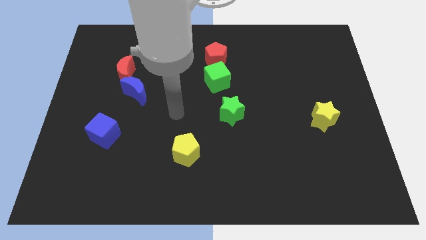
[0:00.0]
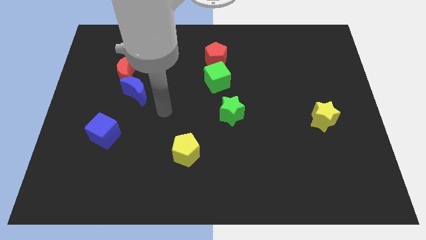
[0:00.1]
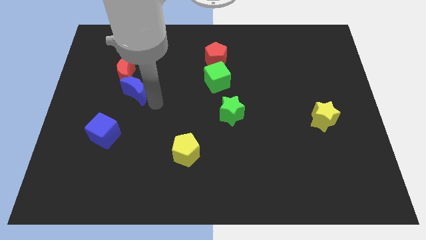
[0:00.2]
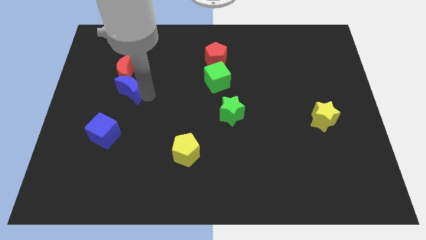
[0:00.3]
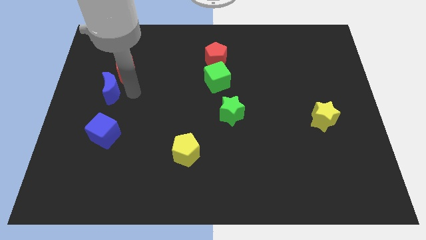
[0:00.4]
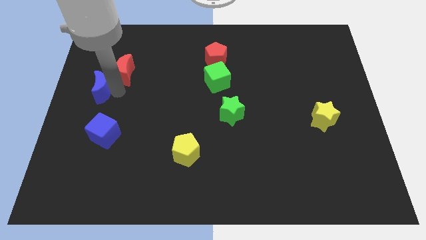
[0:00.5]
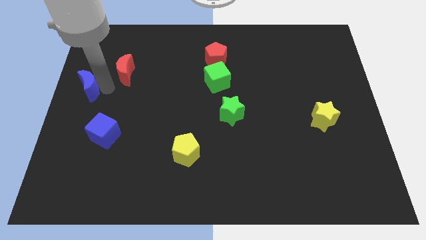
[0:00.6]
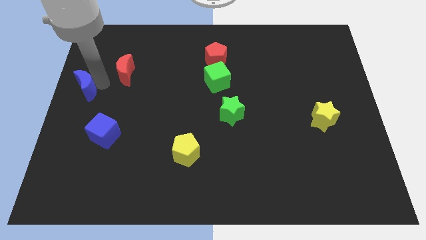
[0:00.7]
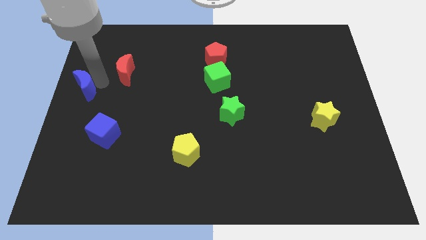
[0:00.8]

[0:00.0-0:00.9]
pull the red moon apart from the blue moon

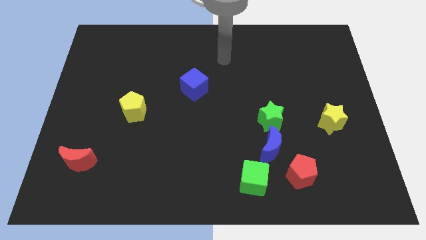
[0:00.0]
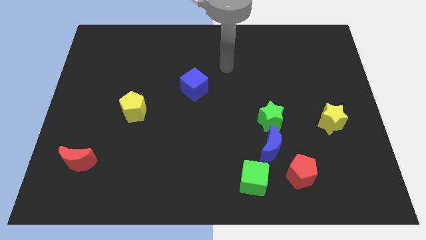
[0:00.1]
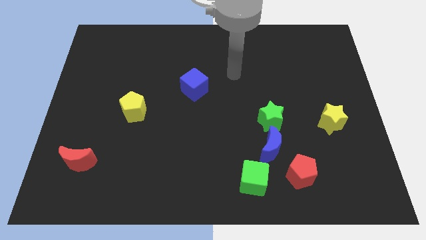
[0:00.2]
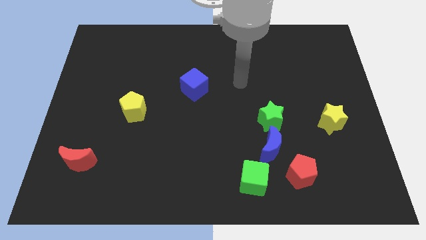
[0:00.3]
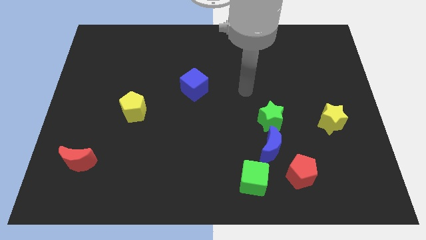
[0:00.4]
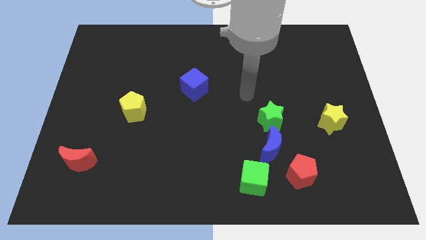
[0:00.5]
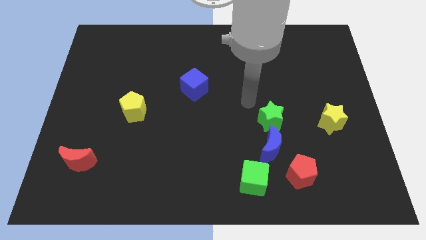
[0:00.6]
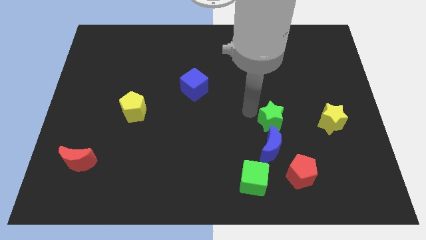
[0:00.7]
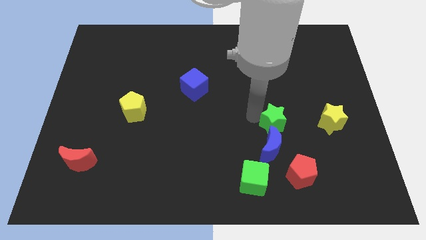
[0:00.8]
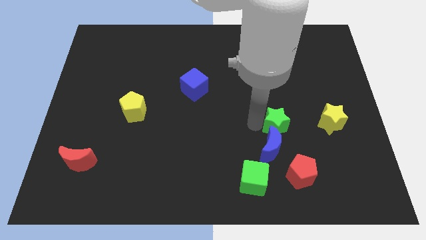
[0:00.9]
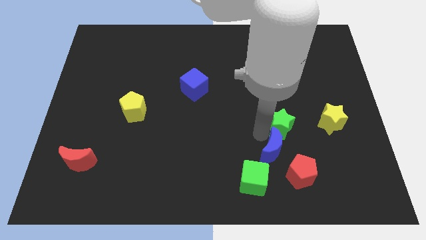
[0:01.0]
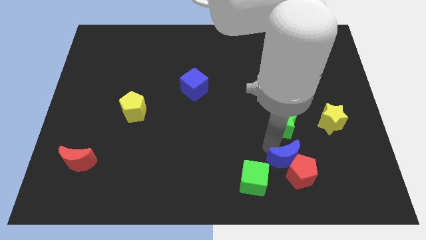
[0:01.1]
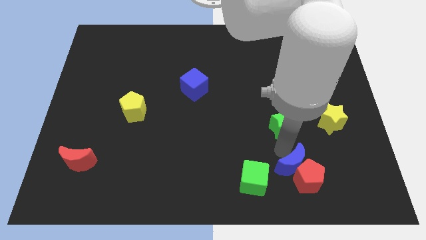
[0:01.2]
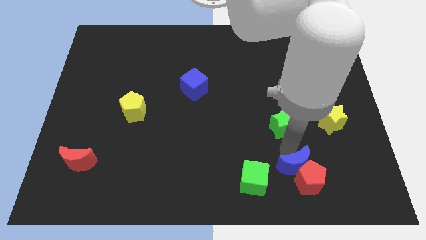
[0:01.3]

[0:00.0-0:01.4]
separate the green star from the blue moon

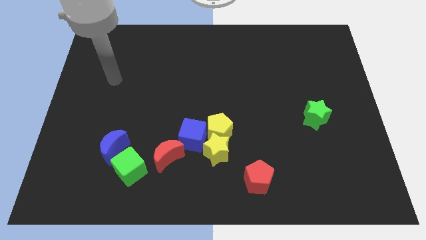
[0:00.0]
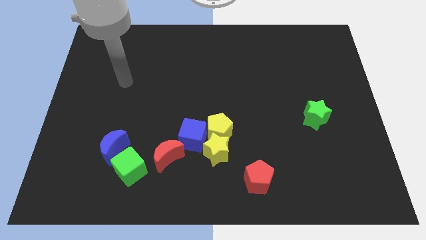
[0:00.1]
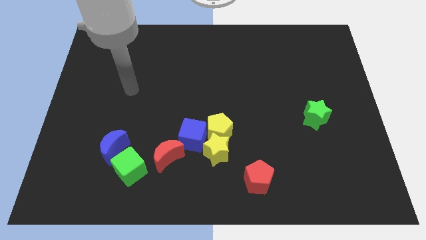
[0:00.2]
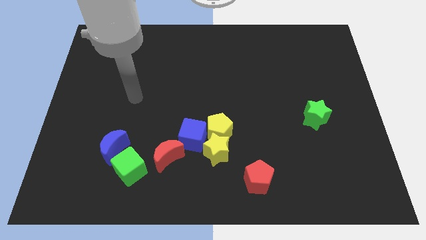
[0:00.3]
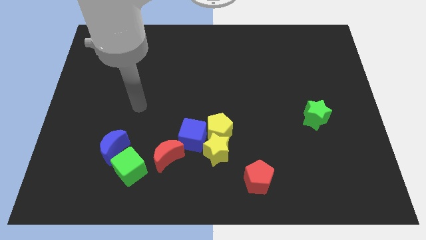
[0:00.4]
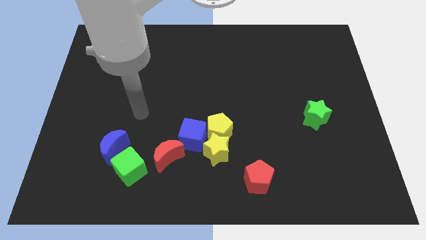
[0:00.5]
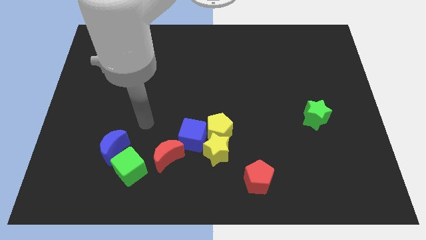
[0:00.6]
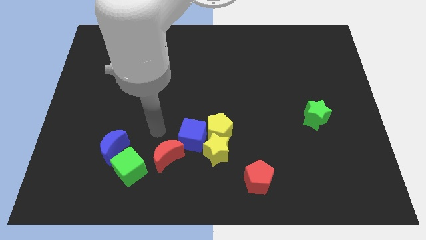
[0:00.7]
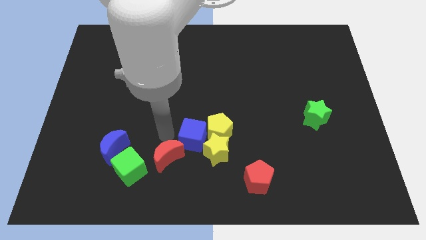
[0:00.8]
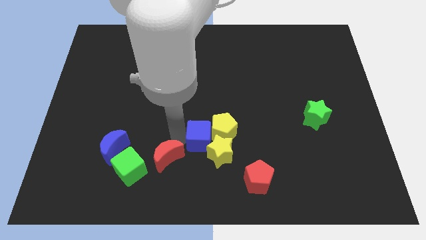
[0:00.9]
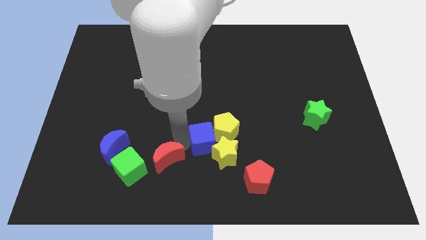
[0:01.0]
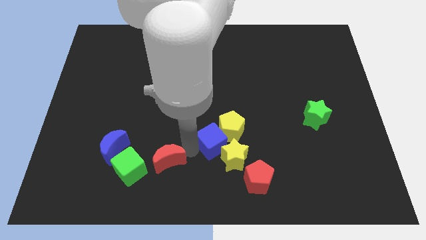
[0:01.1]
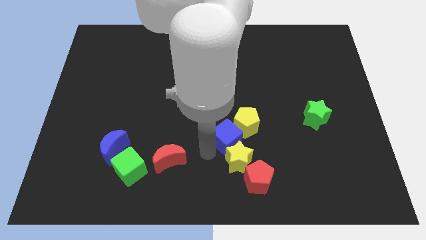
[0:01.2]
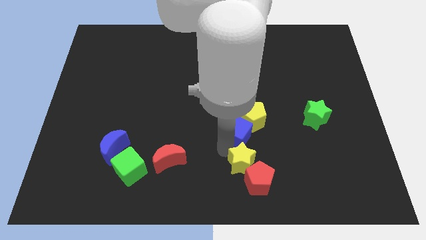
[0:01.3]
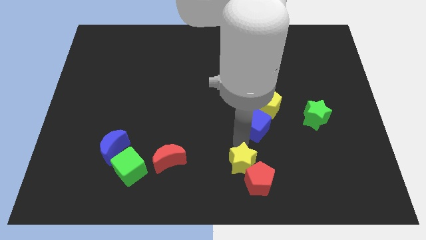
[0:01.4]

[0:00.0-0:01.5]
move the yellow pentagon away from the yellow star and blue cube

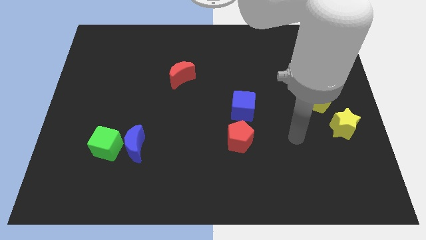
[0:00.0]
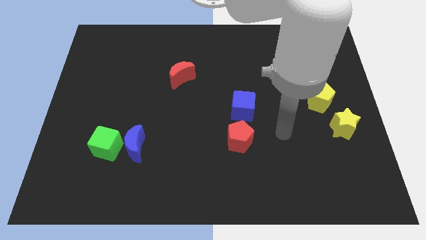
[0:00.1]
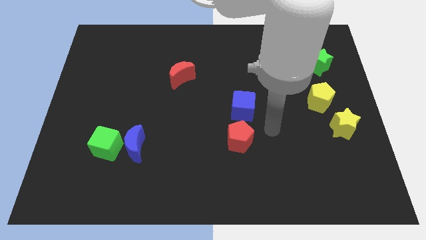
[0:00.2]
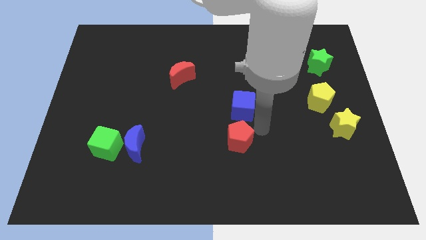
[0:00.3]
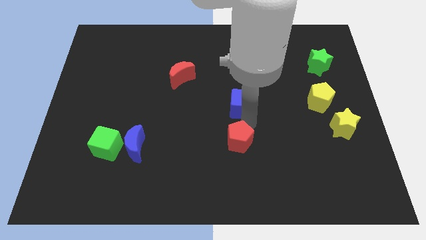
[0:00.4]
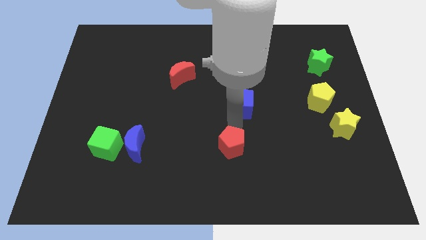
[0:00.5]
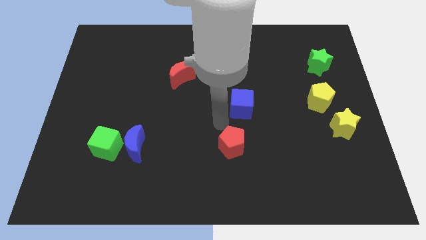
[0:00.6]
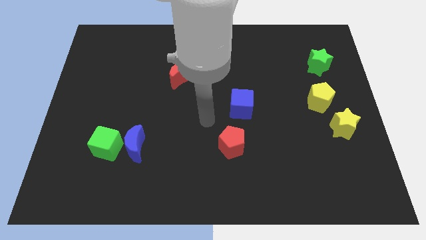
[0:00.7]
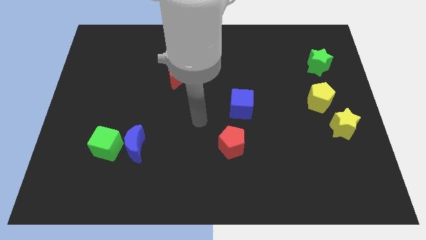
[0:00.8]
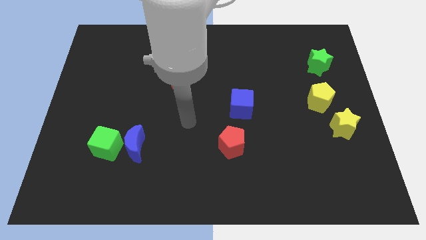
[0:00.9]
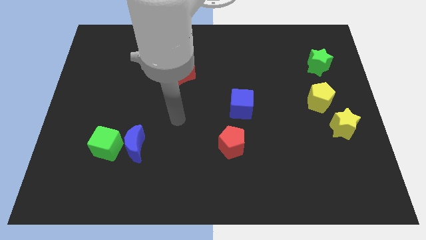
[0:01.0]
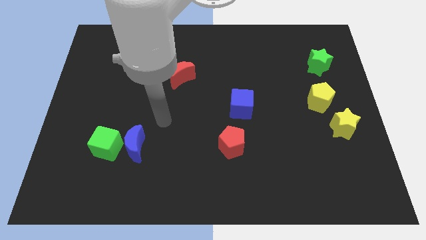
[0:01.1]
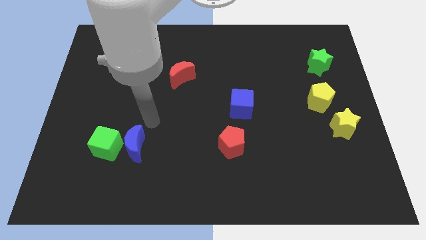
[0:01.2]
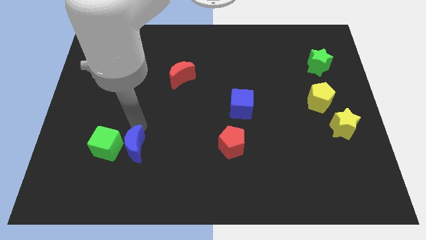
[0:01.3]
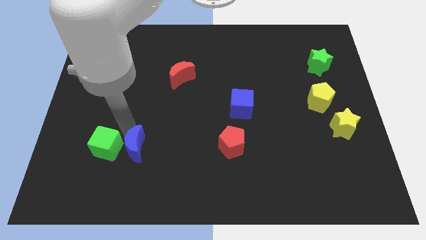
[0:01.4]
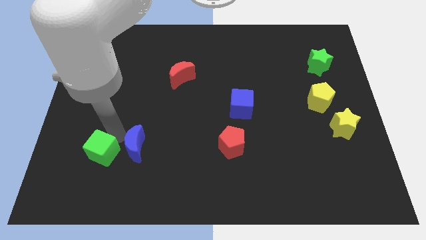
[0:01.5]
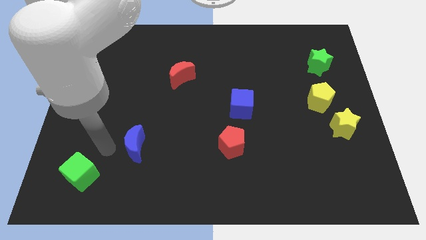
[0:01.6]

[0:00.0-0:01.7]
pull the blue moon apart from the green cube
